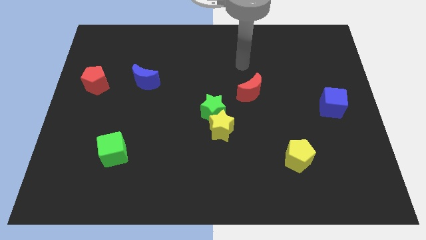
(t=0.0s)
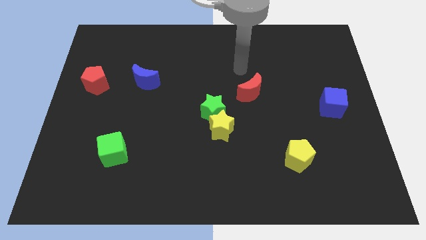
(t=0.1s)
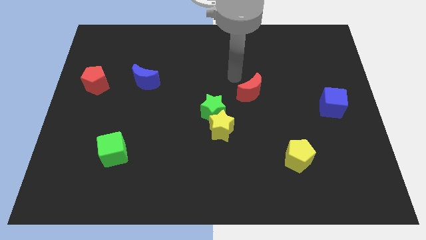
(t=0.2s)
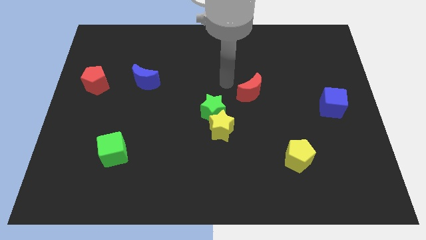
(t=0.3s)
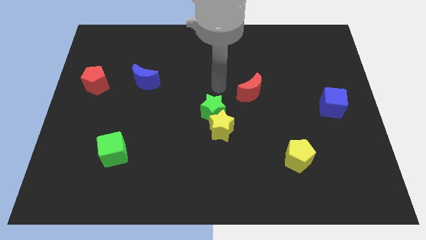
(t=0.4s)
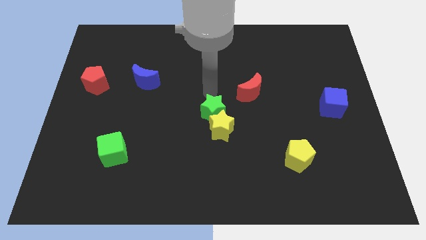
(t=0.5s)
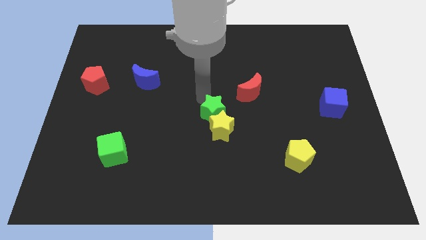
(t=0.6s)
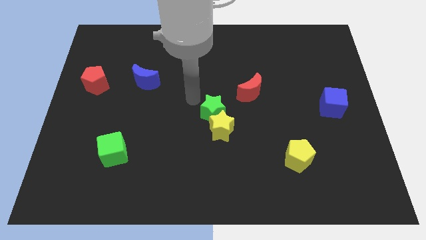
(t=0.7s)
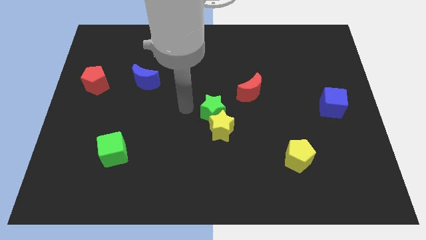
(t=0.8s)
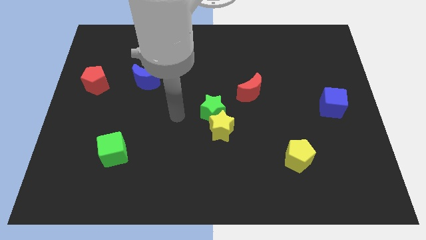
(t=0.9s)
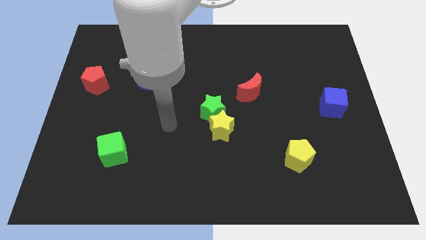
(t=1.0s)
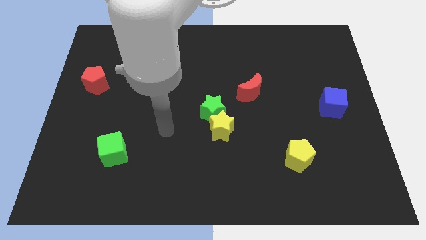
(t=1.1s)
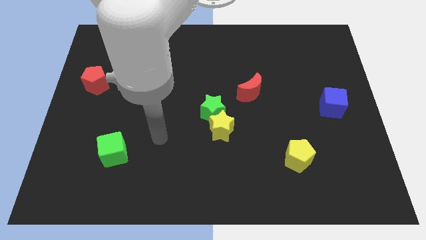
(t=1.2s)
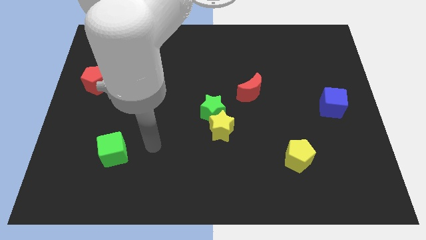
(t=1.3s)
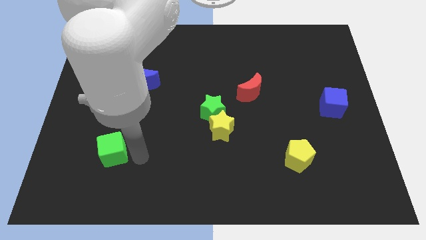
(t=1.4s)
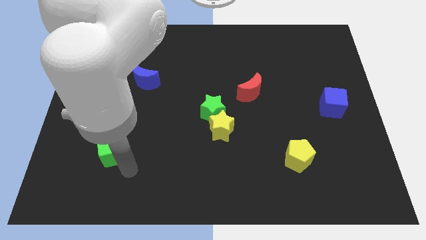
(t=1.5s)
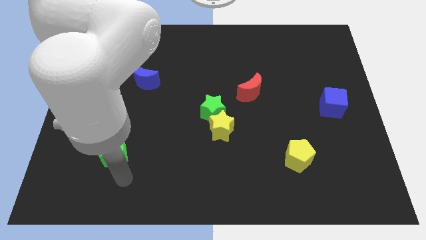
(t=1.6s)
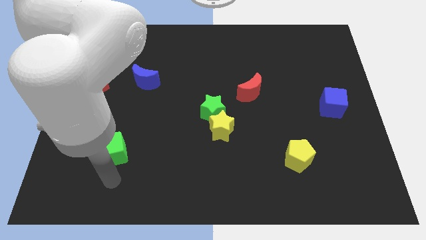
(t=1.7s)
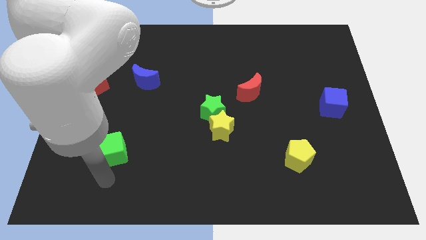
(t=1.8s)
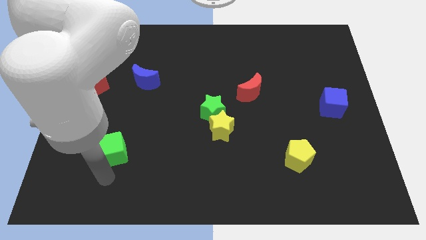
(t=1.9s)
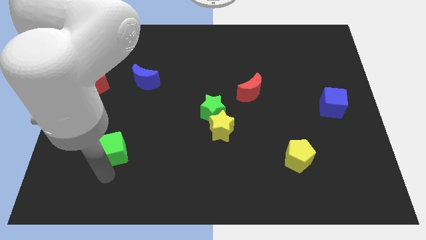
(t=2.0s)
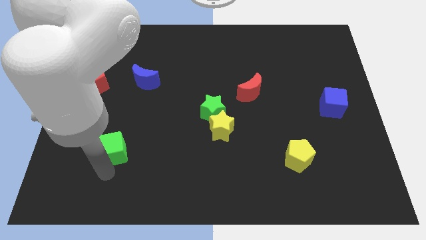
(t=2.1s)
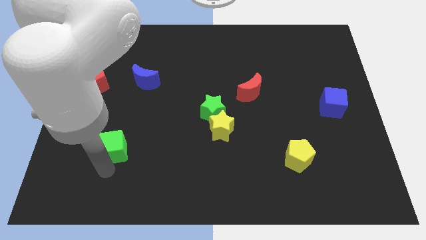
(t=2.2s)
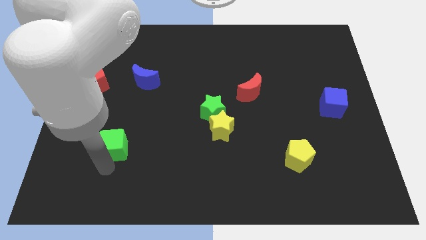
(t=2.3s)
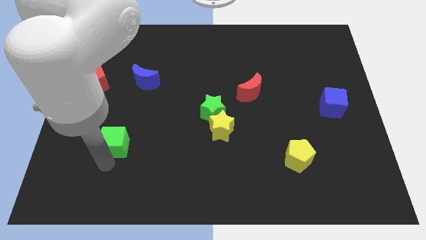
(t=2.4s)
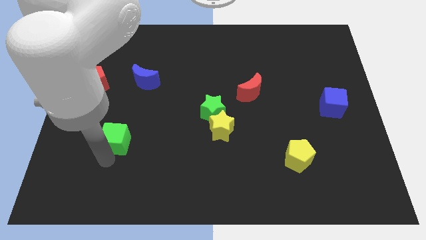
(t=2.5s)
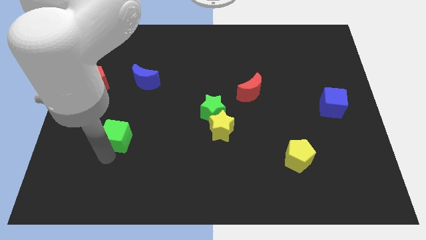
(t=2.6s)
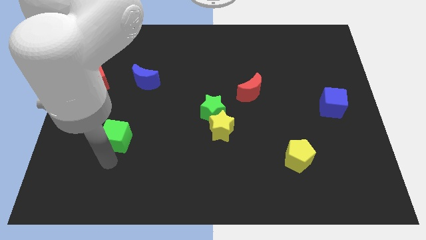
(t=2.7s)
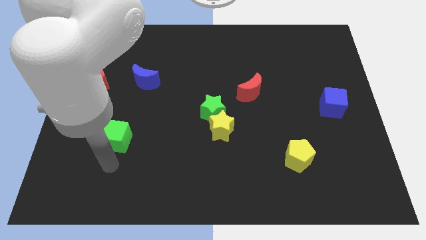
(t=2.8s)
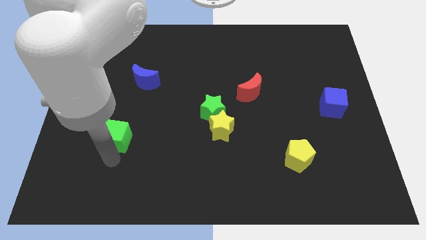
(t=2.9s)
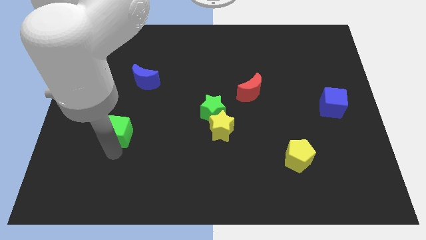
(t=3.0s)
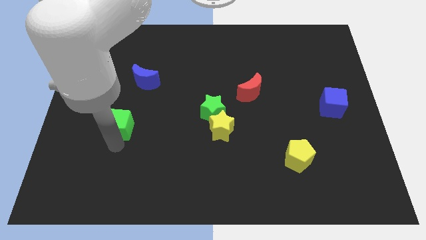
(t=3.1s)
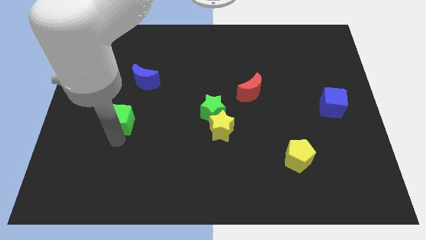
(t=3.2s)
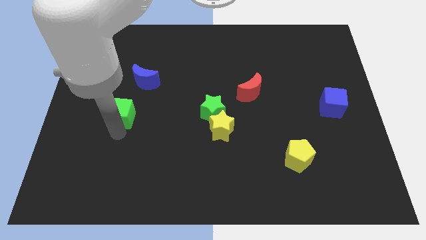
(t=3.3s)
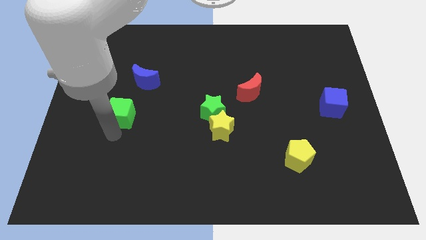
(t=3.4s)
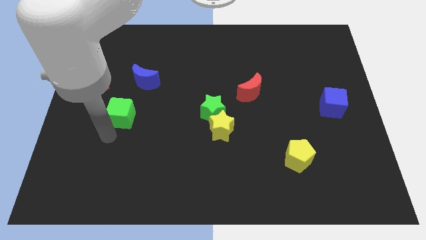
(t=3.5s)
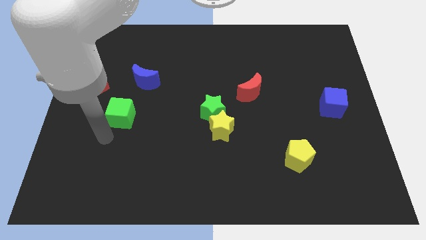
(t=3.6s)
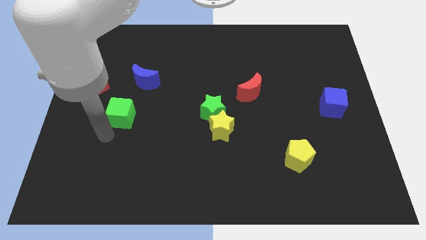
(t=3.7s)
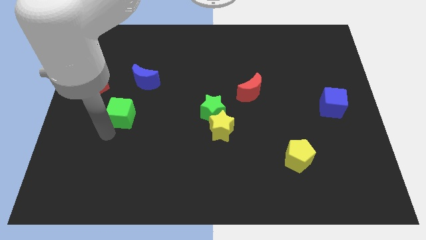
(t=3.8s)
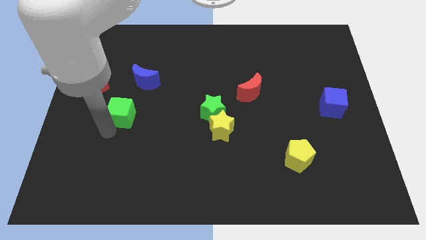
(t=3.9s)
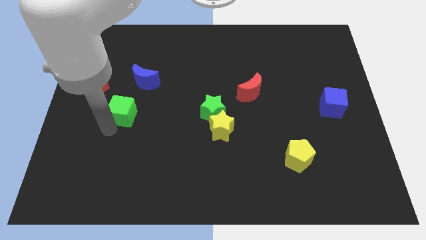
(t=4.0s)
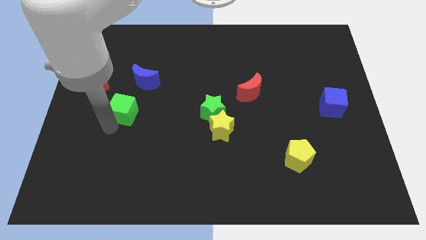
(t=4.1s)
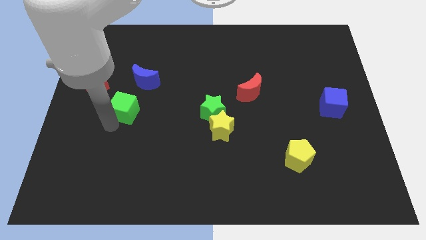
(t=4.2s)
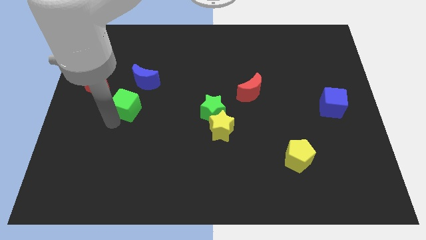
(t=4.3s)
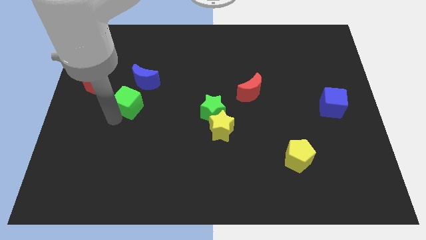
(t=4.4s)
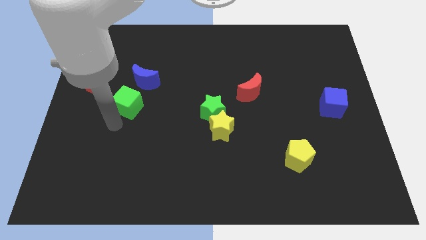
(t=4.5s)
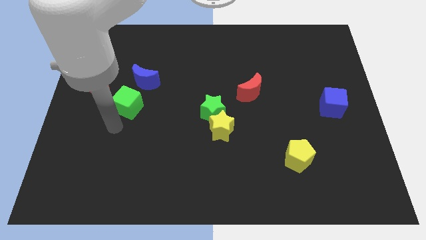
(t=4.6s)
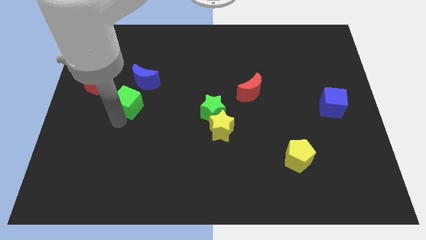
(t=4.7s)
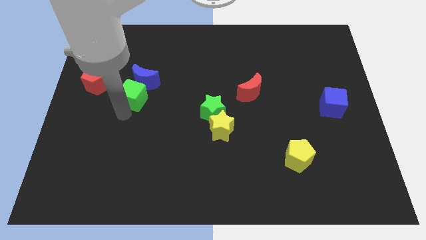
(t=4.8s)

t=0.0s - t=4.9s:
push the green cube next to the blue moon

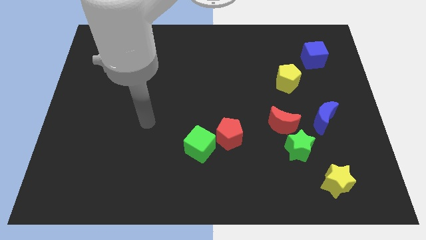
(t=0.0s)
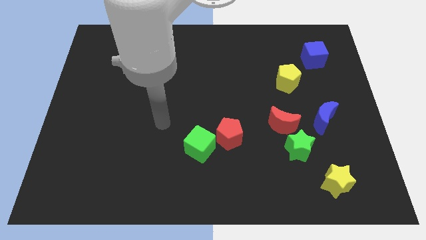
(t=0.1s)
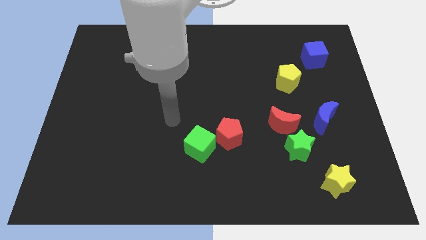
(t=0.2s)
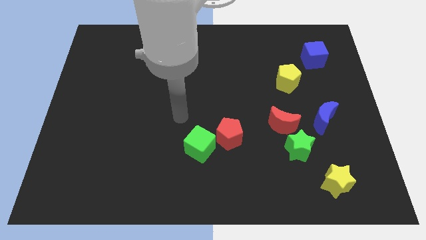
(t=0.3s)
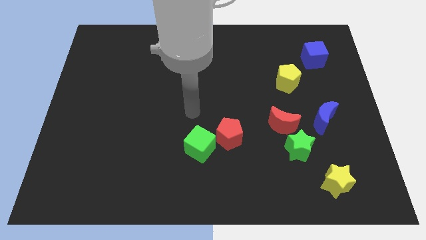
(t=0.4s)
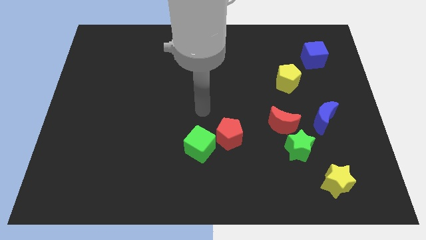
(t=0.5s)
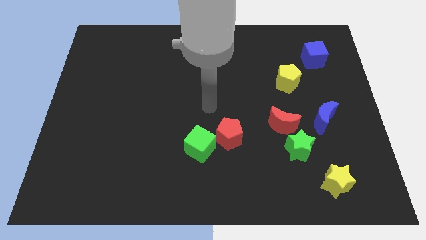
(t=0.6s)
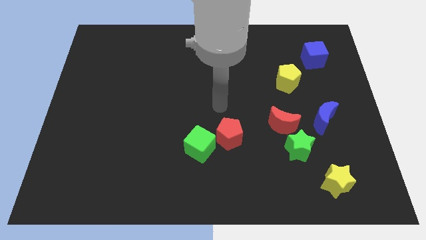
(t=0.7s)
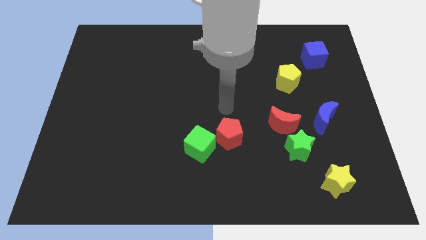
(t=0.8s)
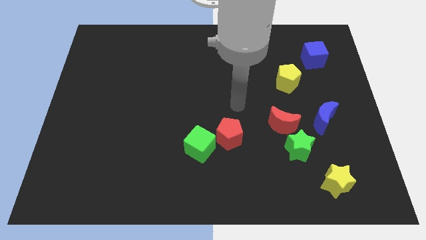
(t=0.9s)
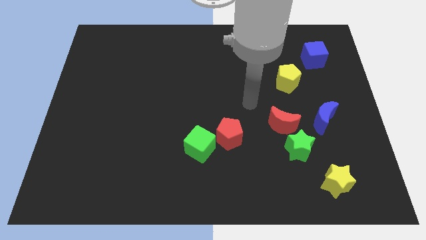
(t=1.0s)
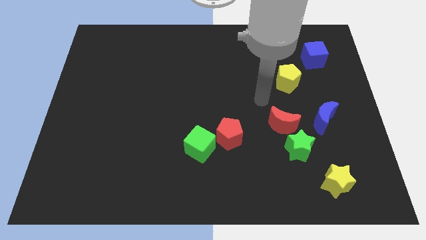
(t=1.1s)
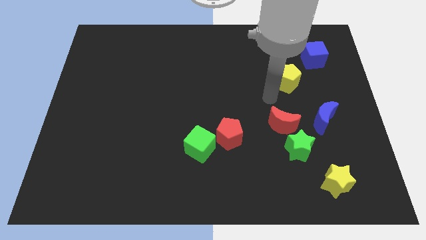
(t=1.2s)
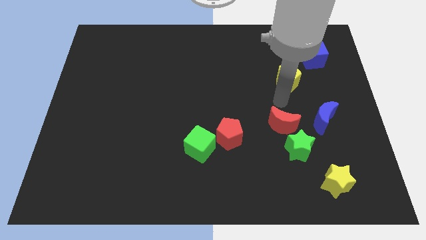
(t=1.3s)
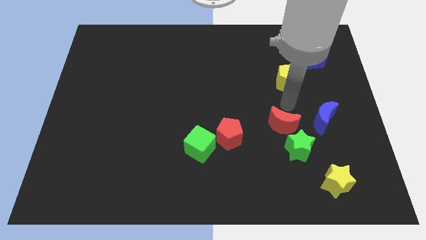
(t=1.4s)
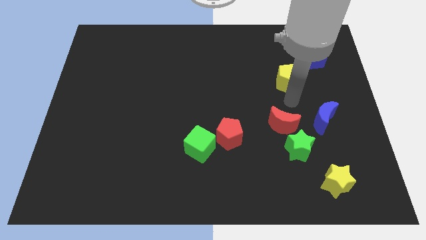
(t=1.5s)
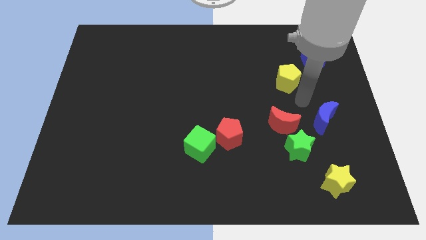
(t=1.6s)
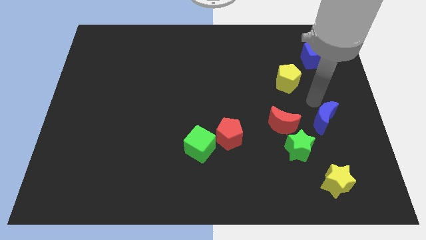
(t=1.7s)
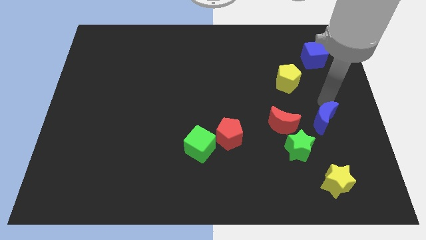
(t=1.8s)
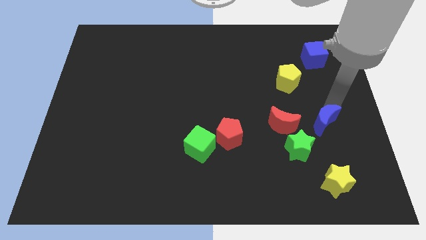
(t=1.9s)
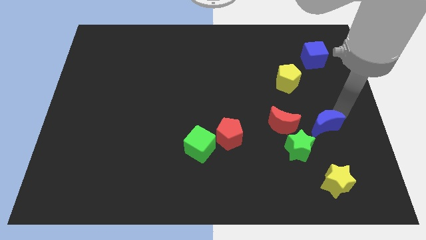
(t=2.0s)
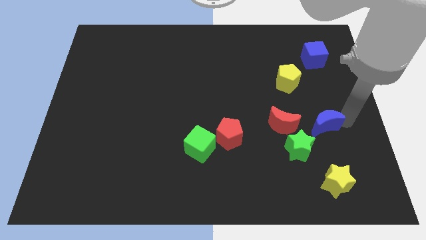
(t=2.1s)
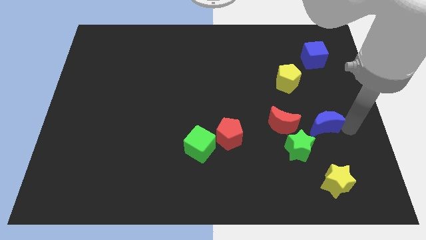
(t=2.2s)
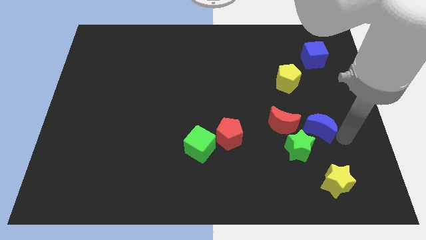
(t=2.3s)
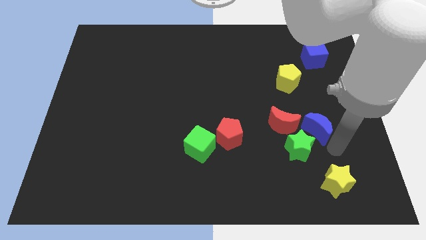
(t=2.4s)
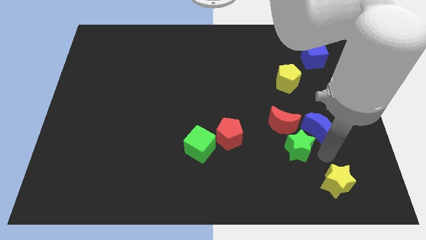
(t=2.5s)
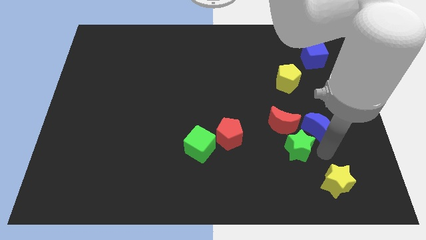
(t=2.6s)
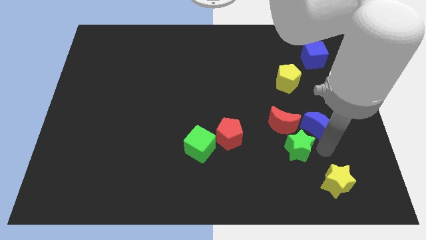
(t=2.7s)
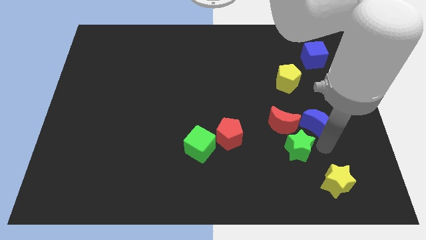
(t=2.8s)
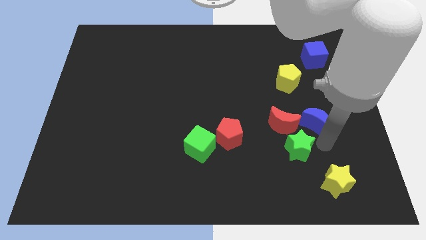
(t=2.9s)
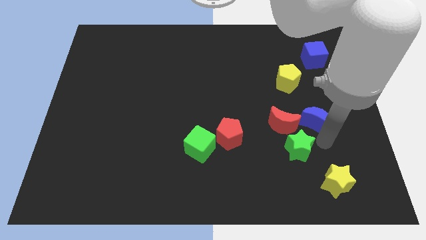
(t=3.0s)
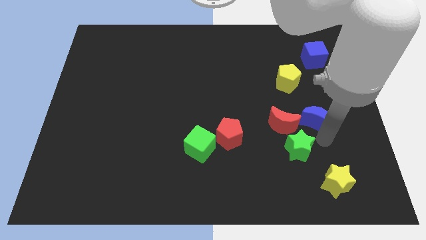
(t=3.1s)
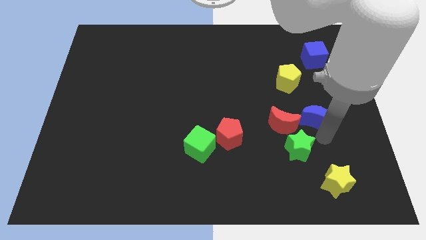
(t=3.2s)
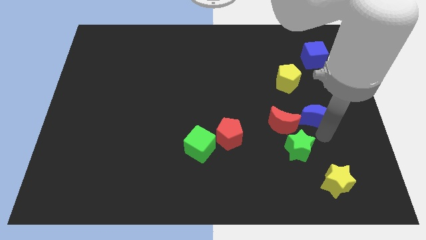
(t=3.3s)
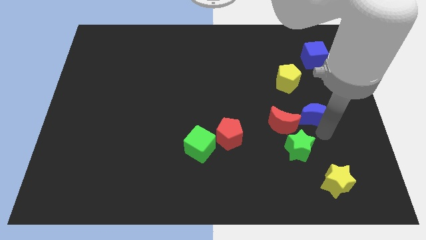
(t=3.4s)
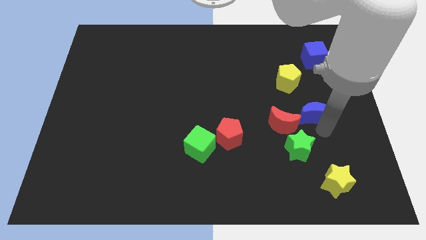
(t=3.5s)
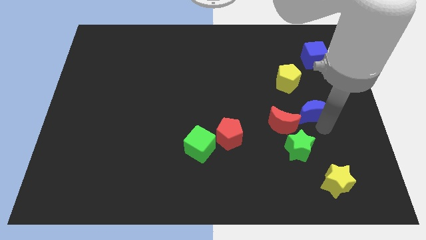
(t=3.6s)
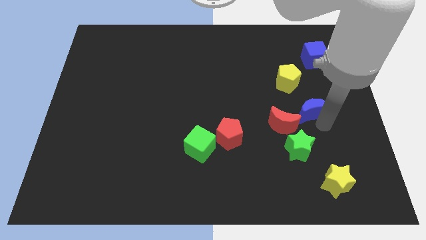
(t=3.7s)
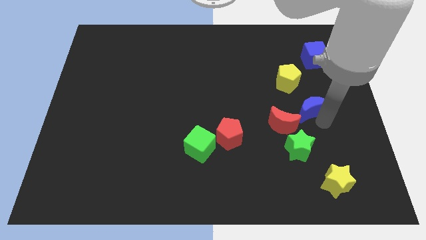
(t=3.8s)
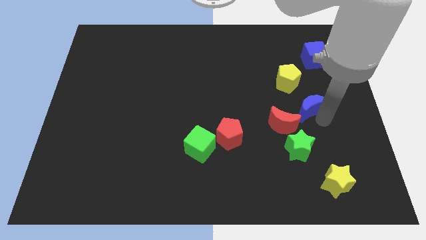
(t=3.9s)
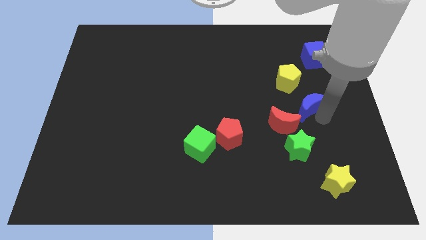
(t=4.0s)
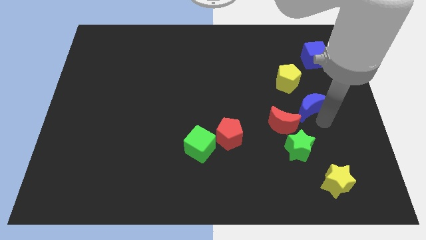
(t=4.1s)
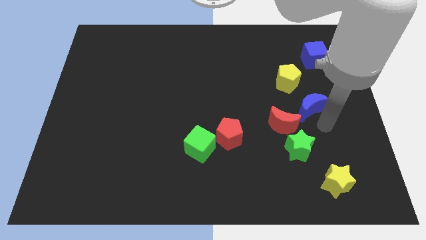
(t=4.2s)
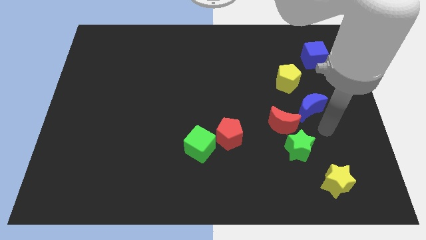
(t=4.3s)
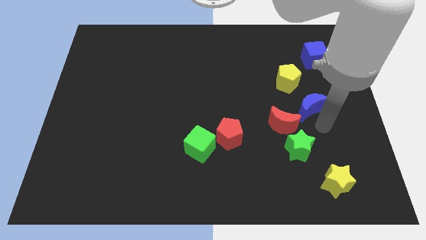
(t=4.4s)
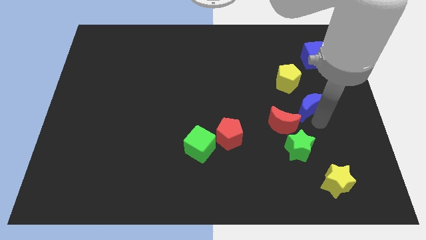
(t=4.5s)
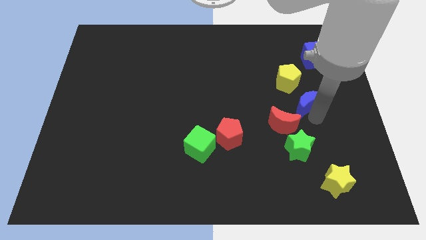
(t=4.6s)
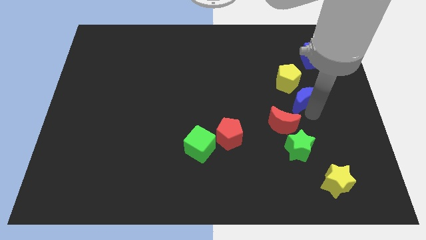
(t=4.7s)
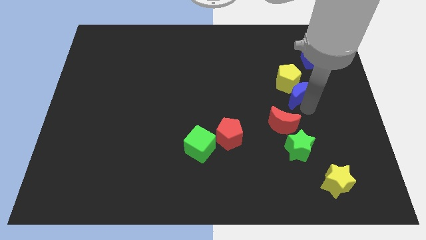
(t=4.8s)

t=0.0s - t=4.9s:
put the blue moon close to the yellow pentagon
